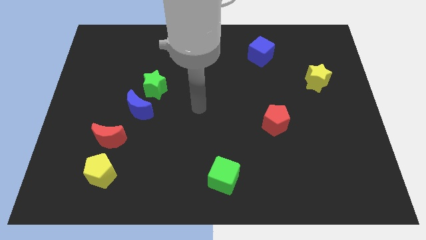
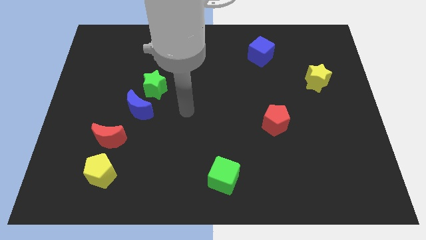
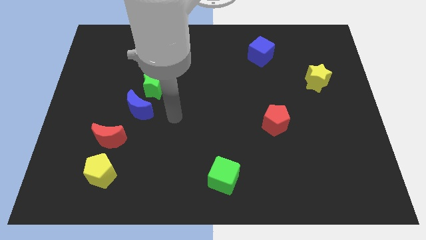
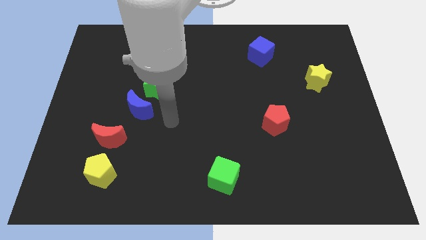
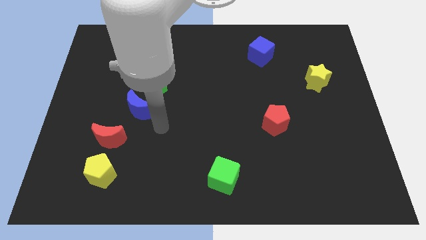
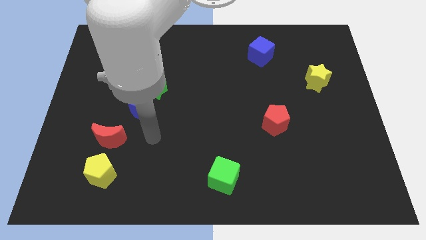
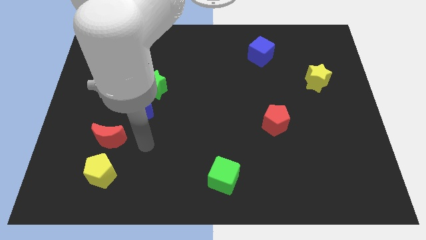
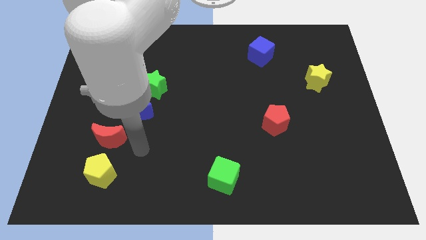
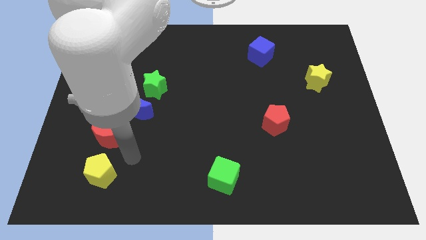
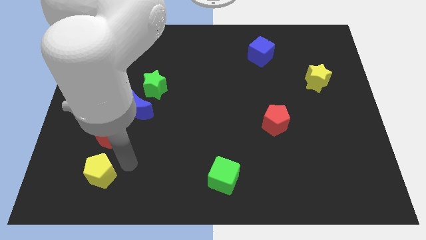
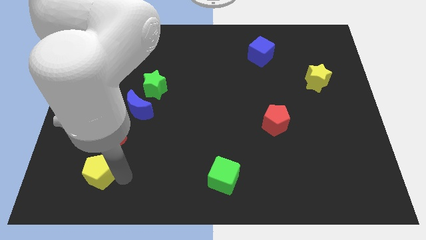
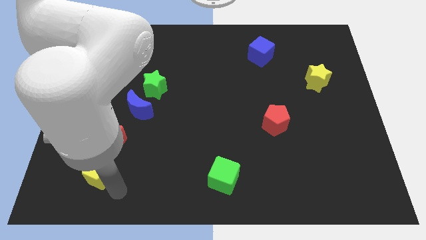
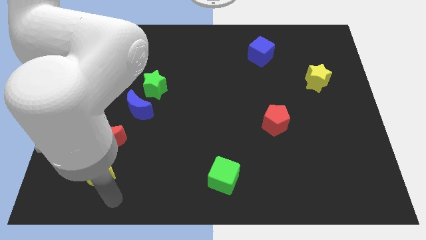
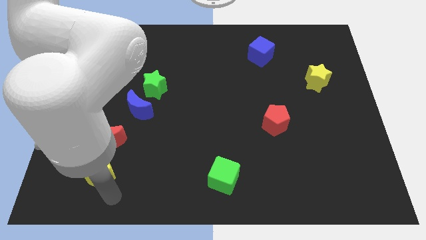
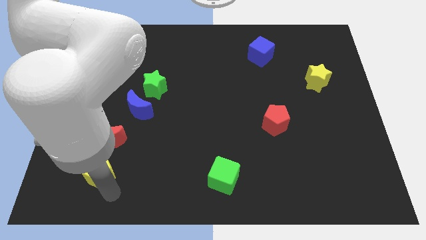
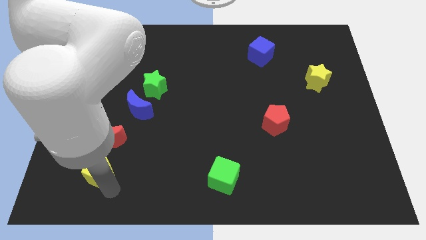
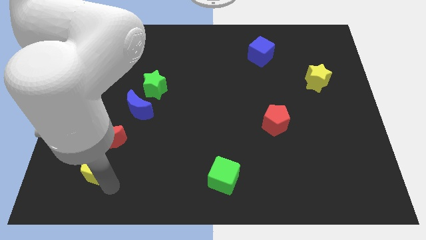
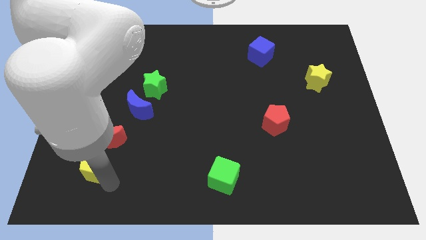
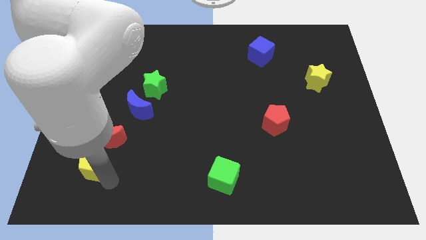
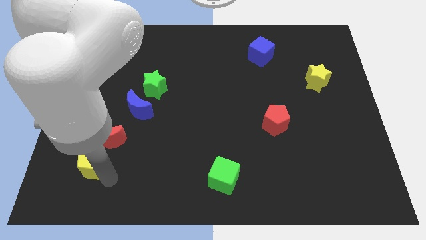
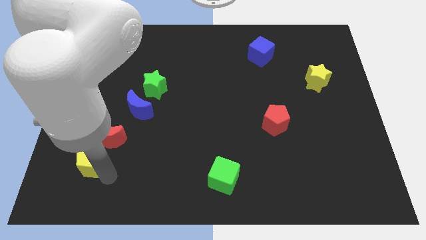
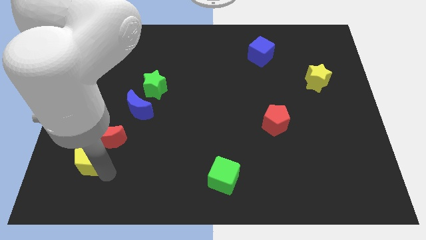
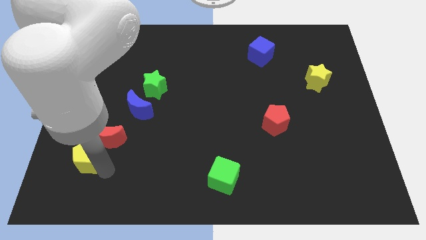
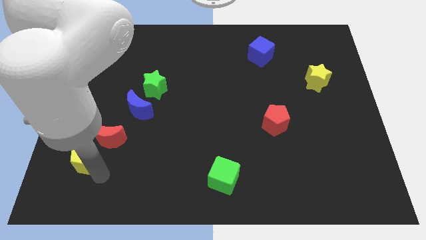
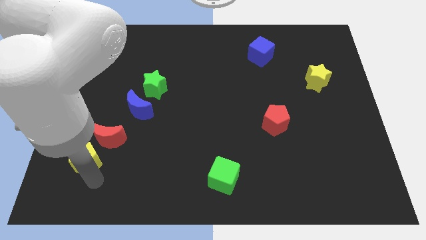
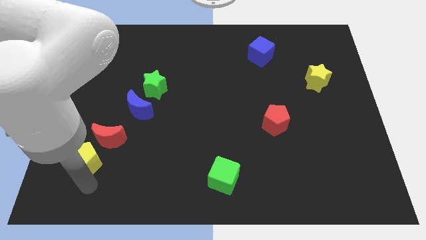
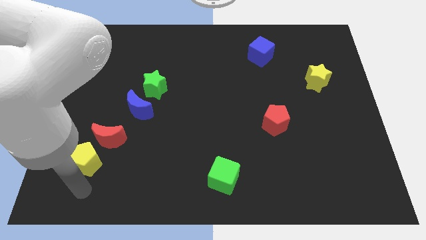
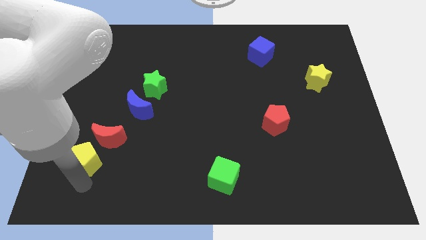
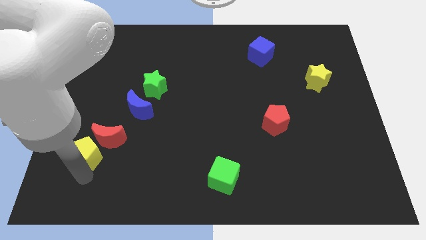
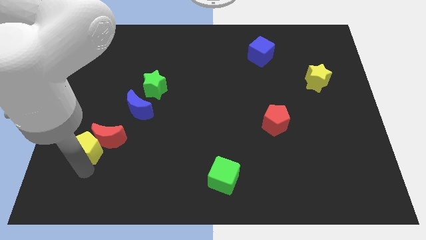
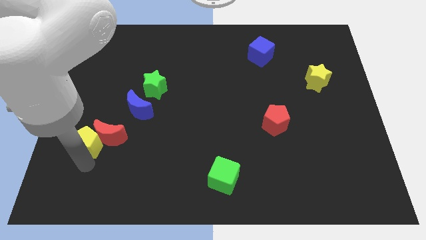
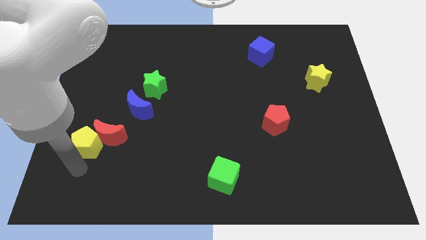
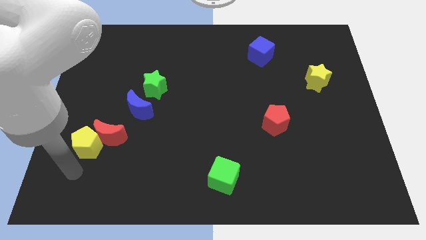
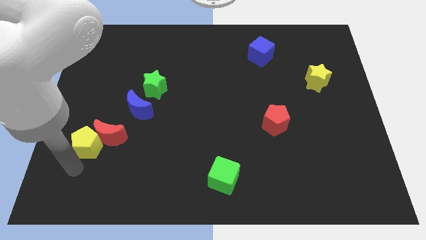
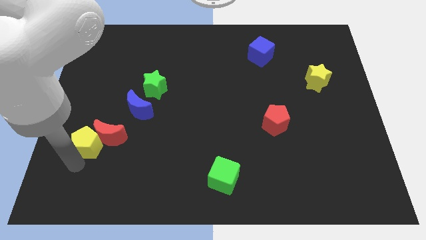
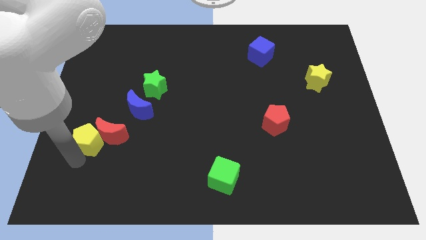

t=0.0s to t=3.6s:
push the yellow pentagon slightly upwards

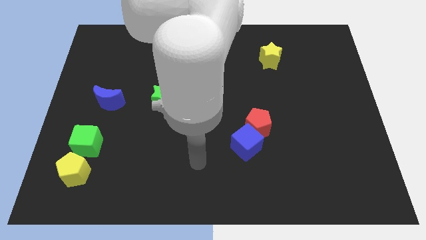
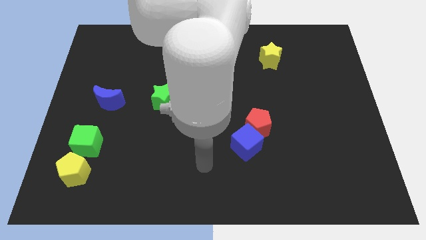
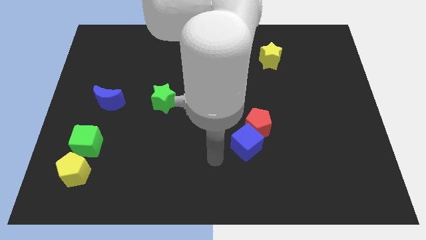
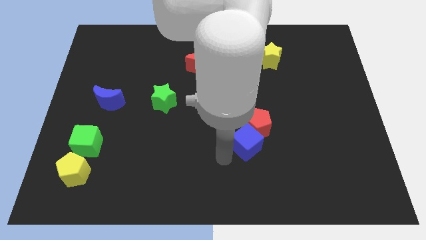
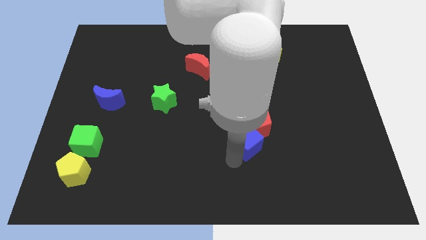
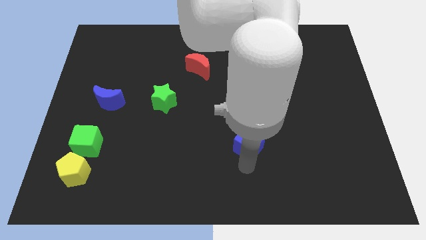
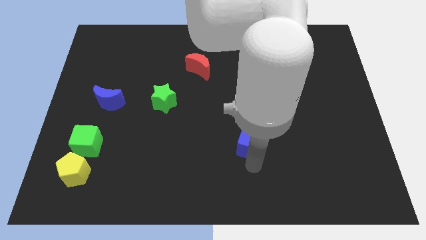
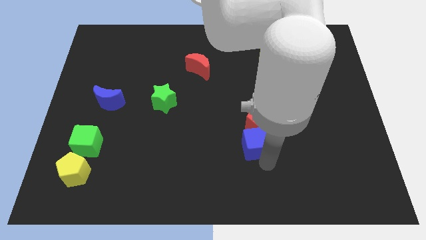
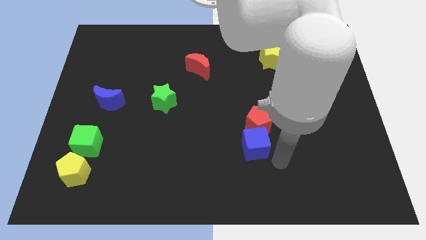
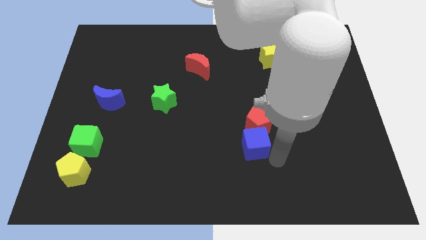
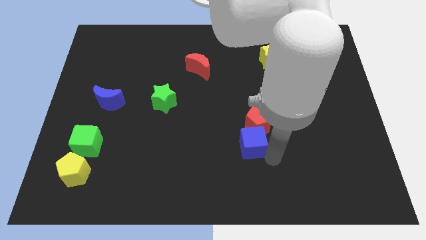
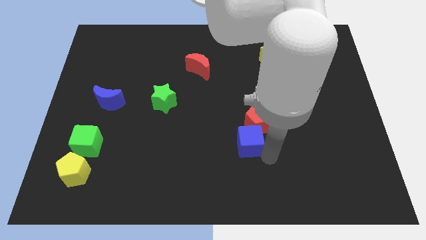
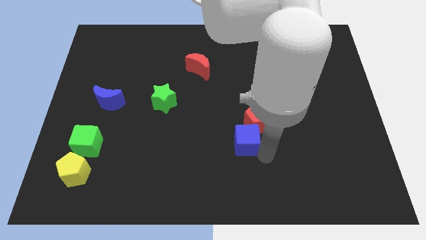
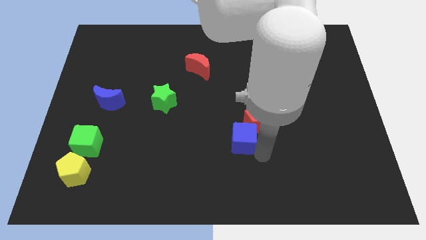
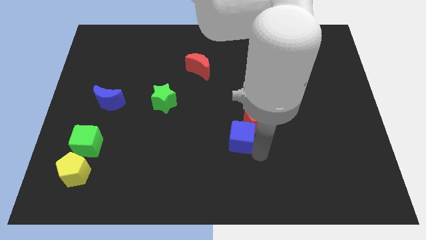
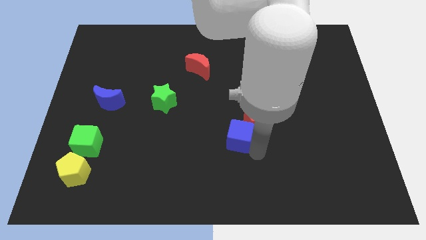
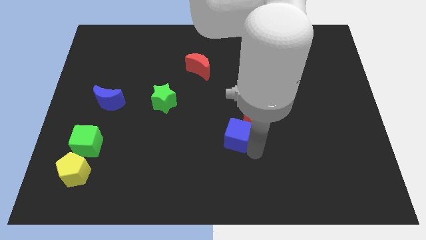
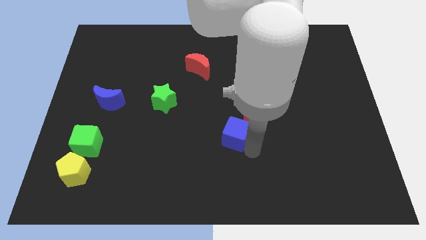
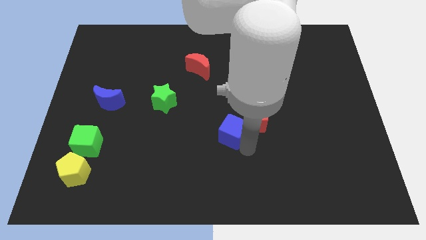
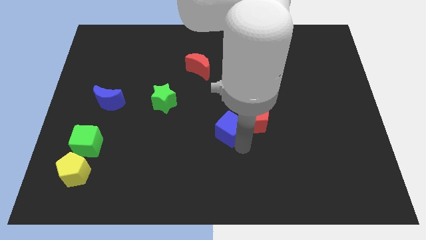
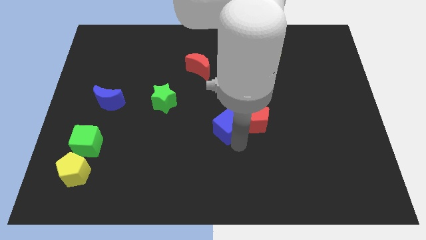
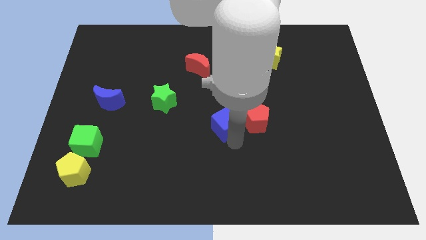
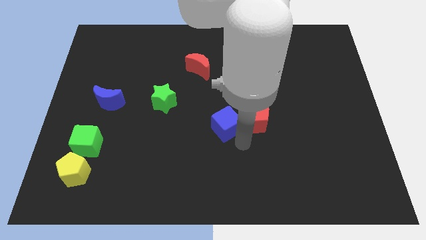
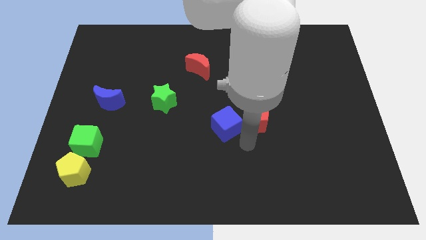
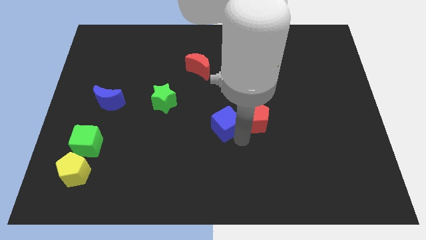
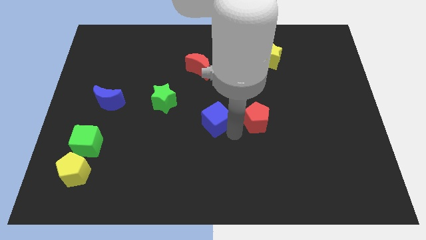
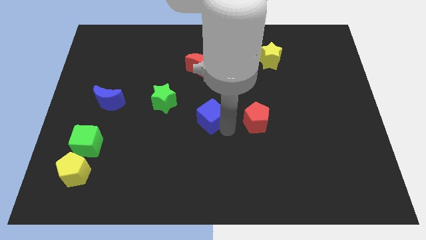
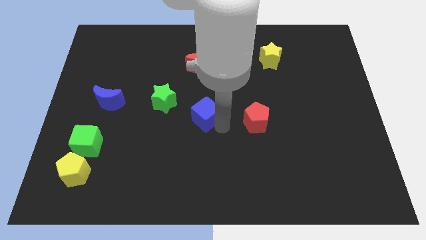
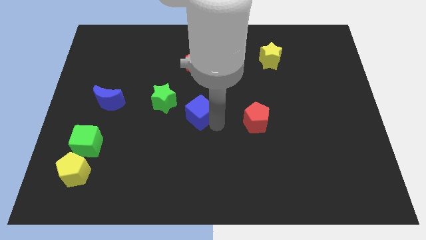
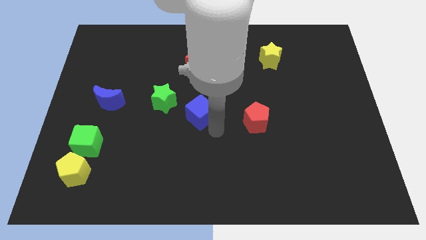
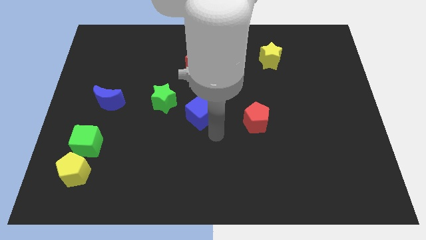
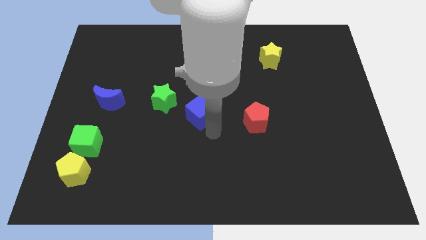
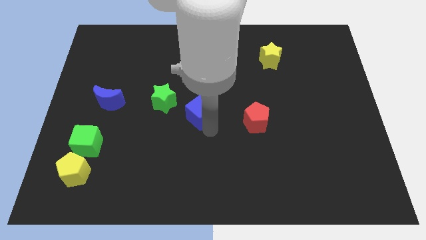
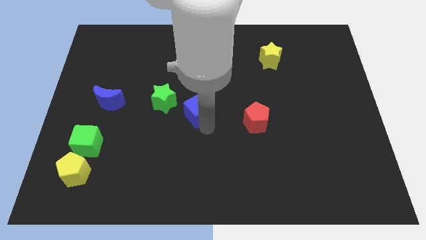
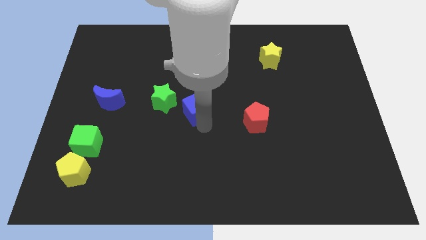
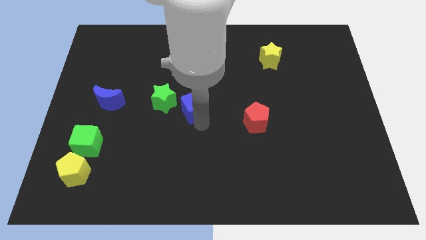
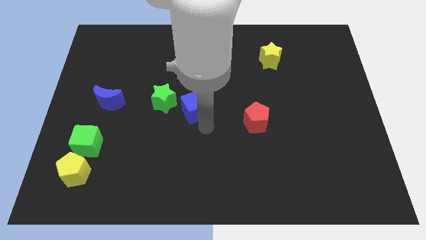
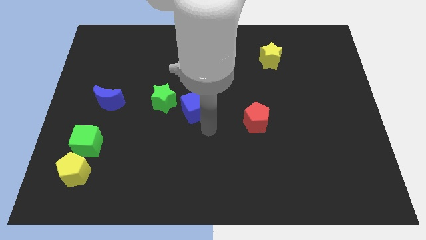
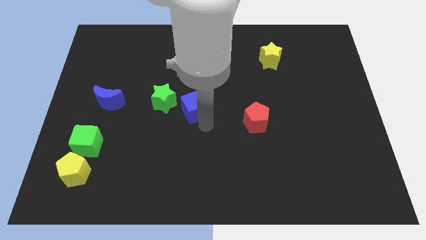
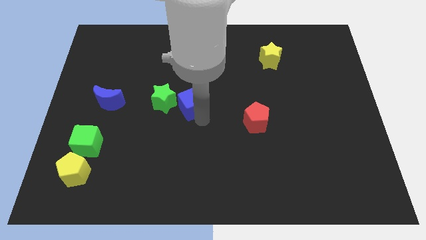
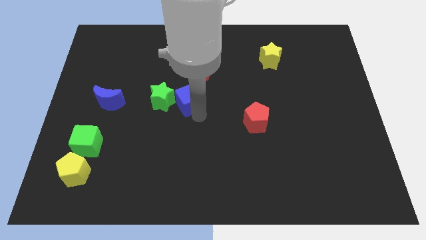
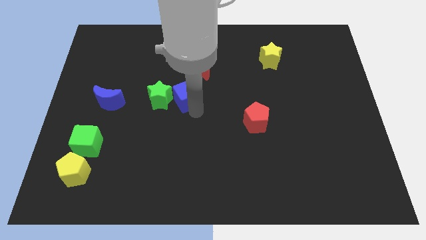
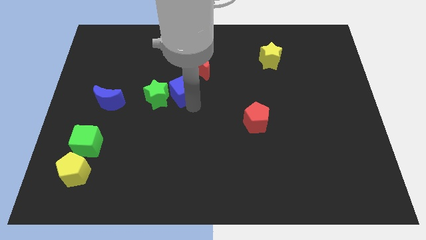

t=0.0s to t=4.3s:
slide the blue cube diagonally up and to the left

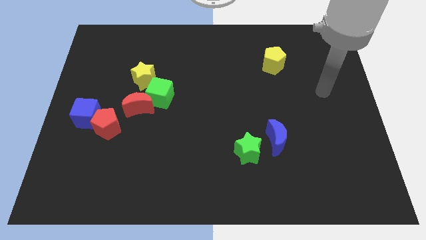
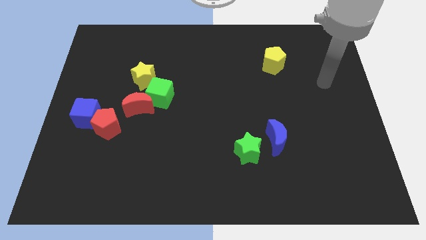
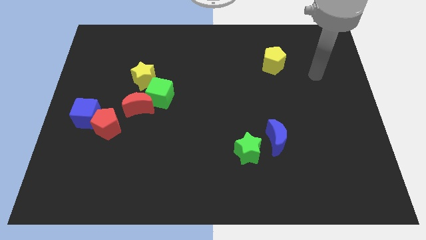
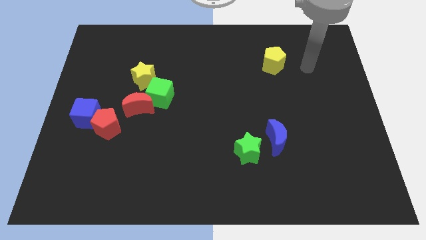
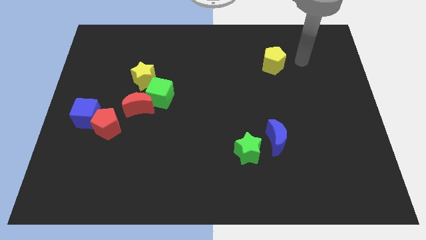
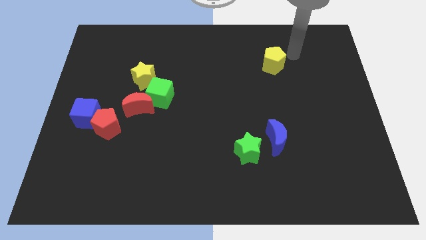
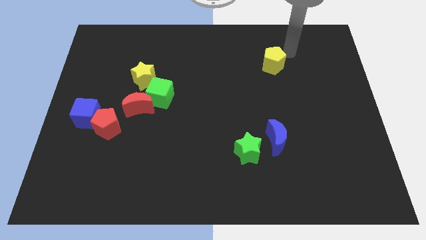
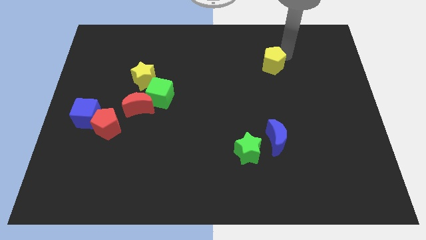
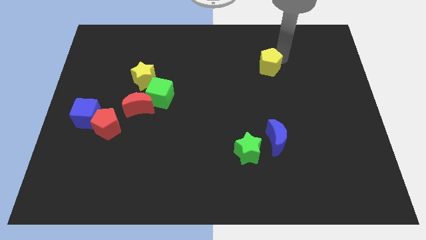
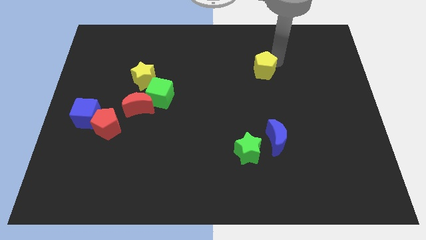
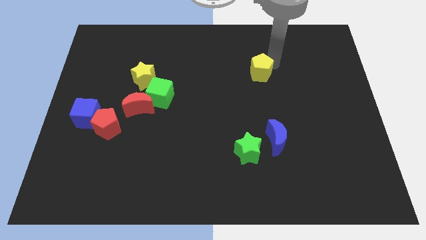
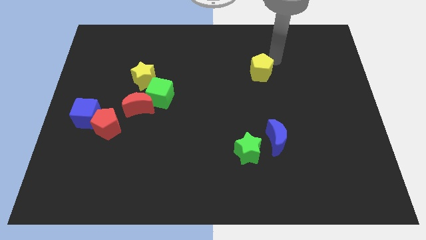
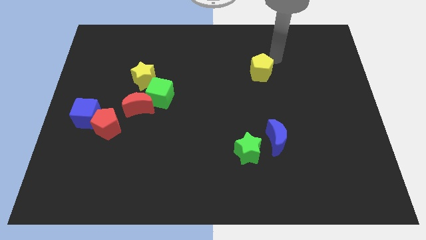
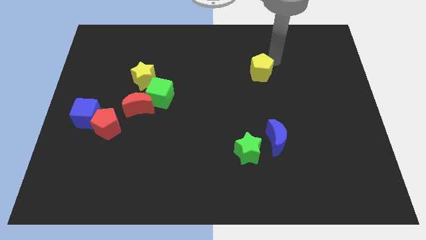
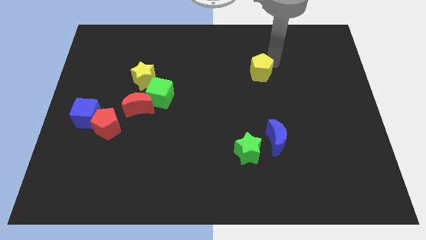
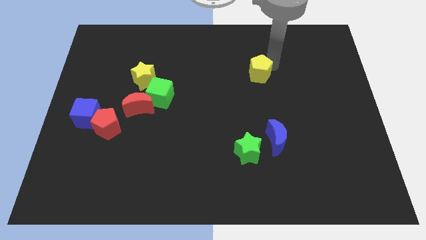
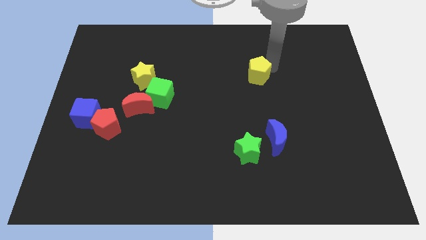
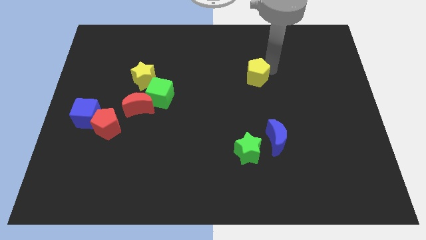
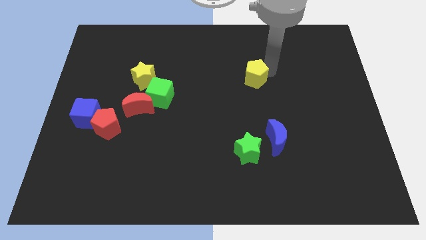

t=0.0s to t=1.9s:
move the yellow pentagon downwards and left a little
